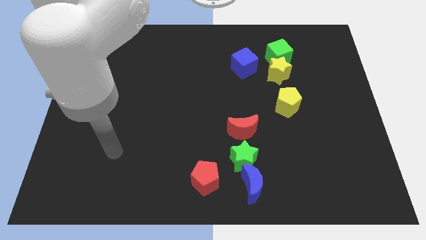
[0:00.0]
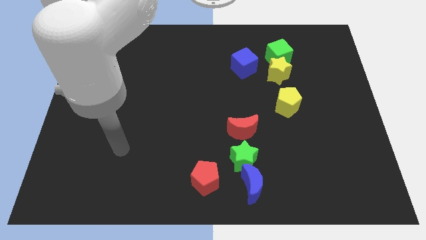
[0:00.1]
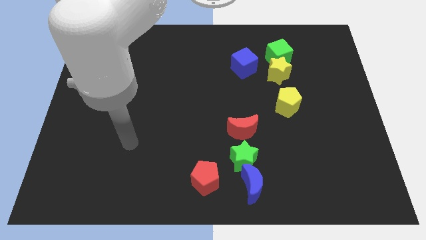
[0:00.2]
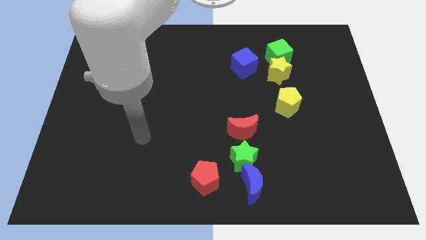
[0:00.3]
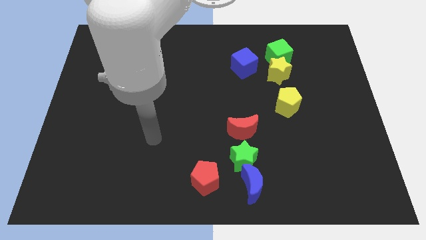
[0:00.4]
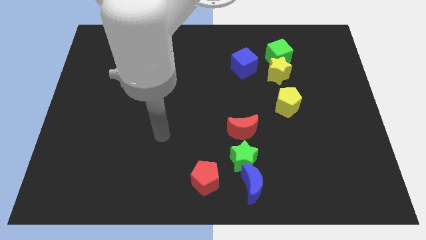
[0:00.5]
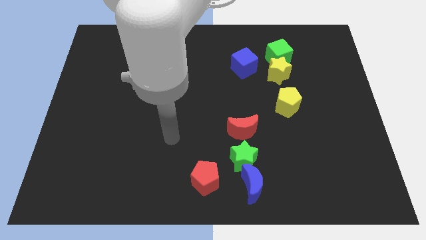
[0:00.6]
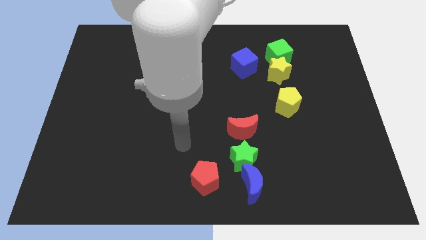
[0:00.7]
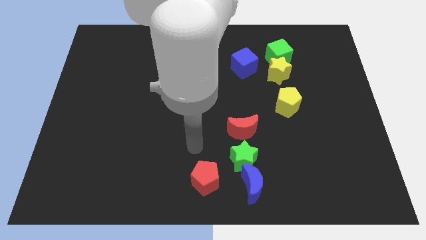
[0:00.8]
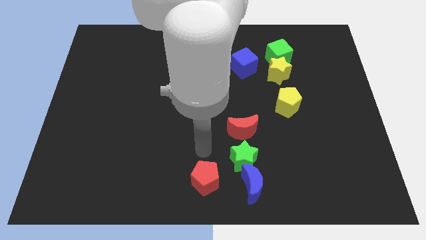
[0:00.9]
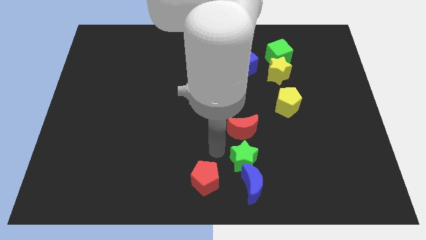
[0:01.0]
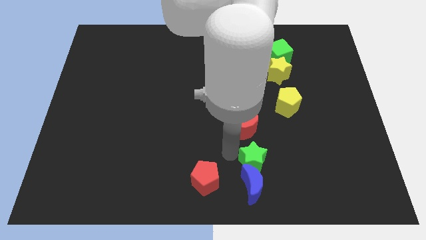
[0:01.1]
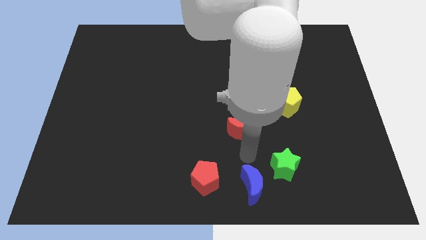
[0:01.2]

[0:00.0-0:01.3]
pull the red moon apart from the green star

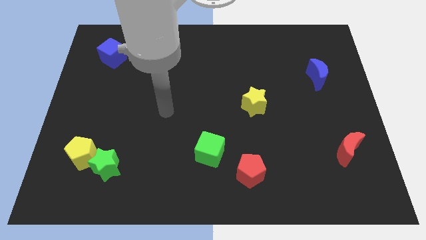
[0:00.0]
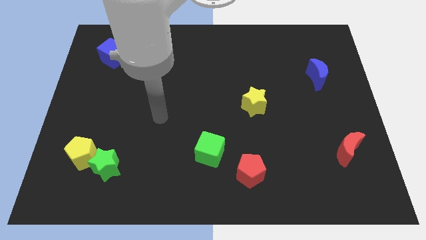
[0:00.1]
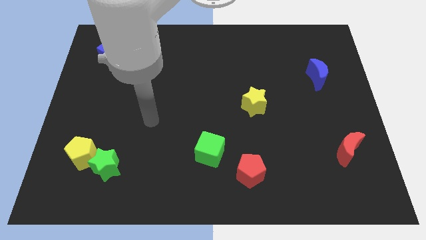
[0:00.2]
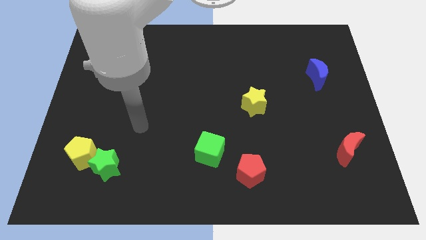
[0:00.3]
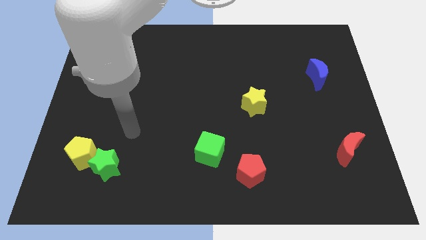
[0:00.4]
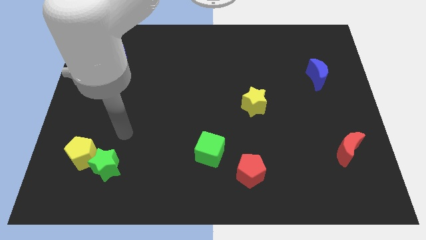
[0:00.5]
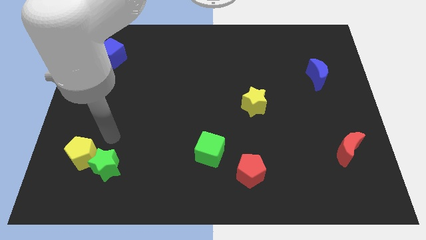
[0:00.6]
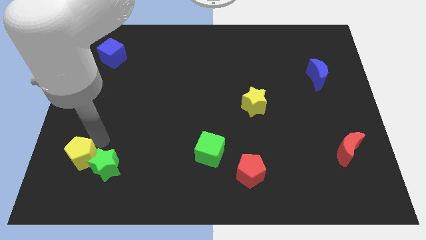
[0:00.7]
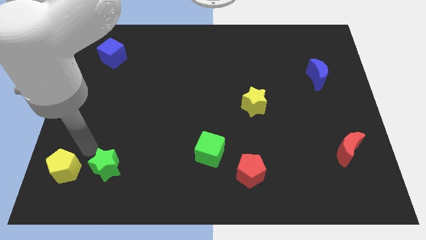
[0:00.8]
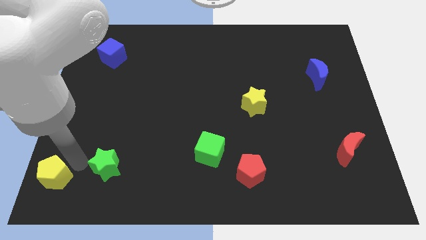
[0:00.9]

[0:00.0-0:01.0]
move the green star away from the yellow pentagon

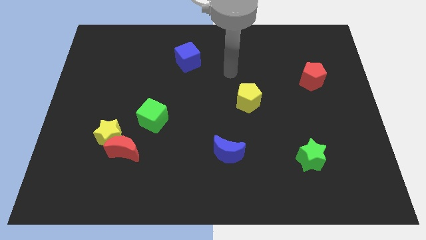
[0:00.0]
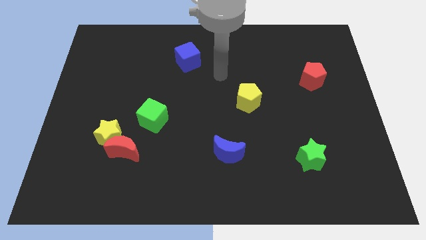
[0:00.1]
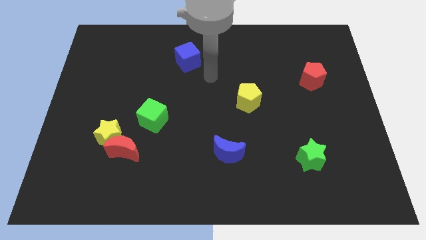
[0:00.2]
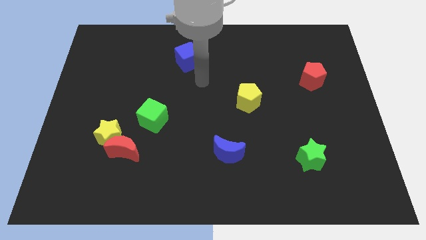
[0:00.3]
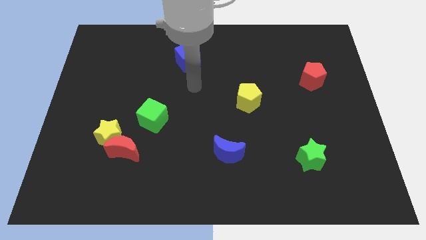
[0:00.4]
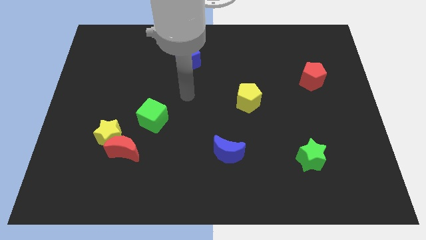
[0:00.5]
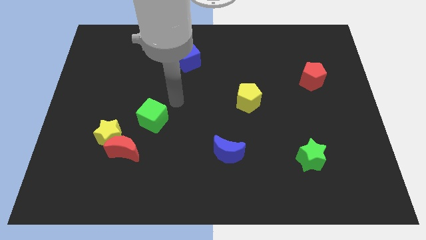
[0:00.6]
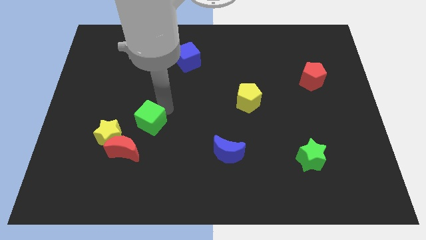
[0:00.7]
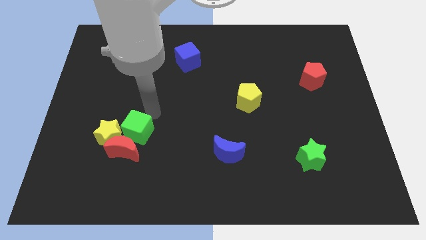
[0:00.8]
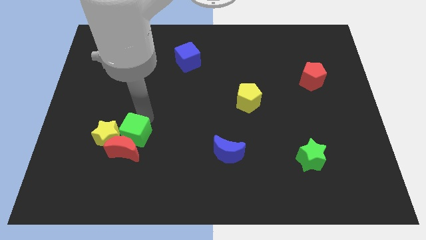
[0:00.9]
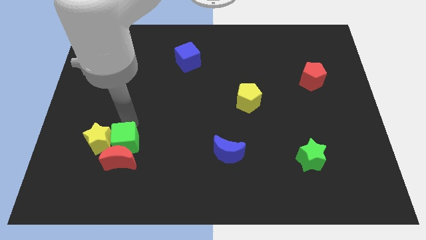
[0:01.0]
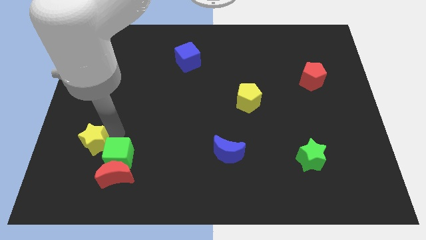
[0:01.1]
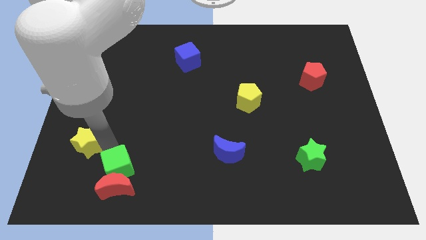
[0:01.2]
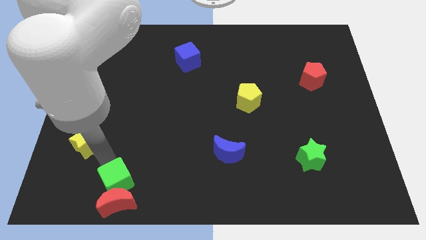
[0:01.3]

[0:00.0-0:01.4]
move the red moon away from the yellow star and green cube

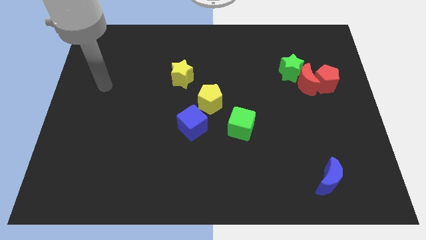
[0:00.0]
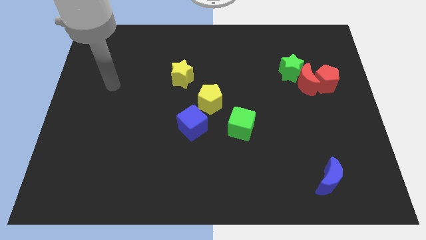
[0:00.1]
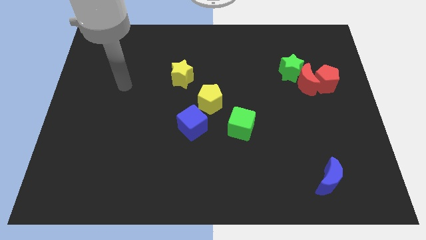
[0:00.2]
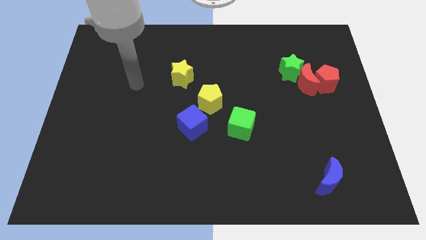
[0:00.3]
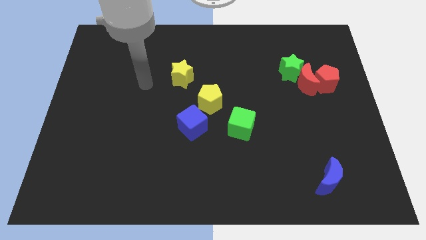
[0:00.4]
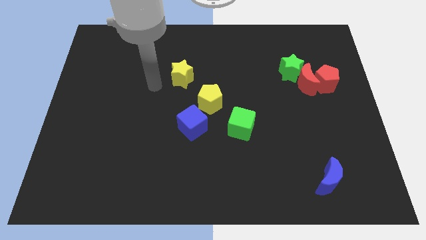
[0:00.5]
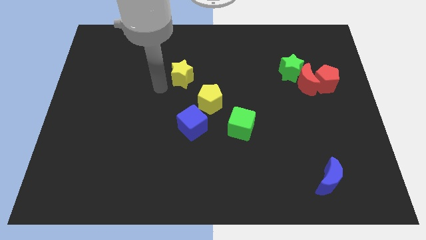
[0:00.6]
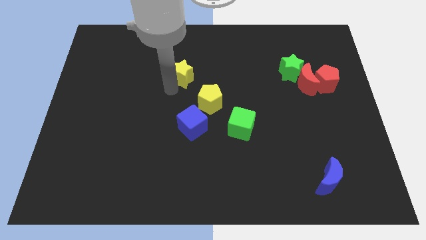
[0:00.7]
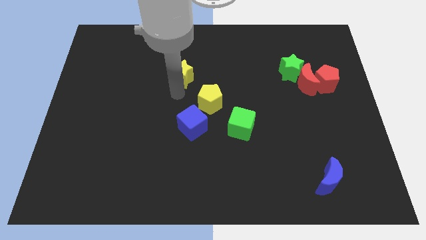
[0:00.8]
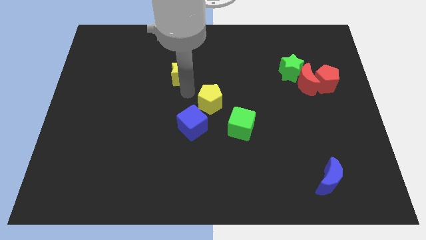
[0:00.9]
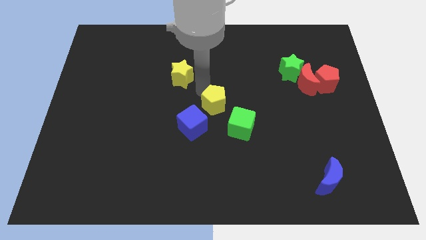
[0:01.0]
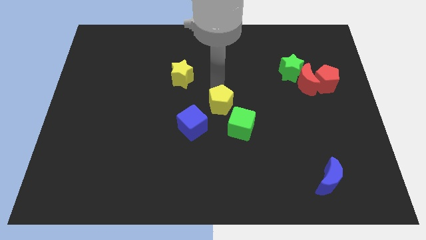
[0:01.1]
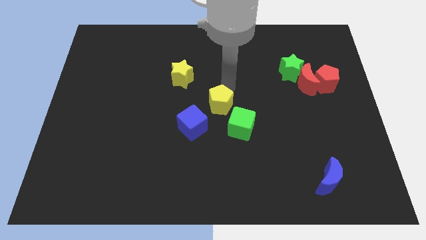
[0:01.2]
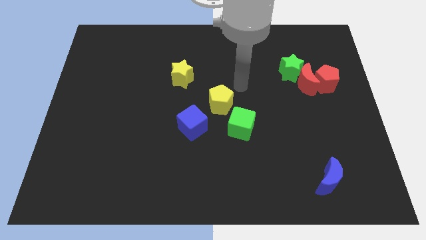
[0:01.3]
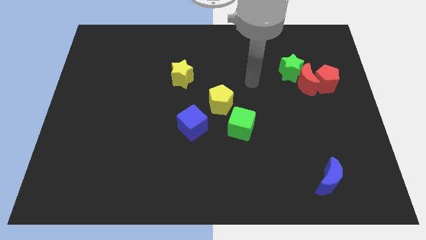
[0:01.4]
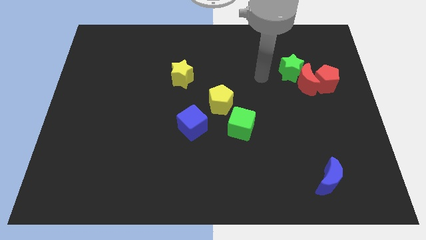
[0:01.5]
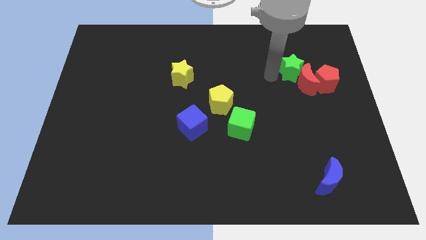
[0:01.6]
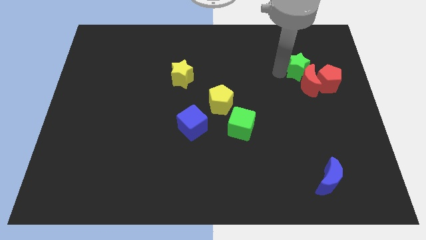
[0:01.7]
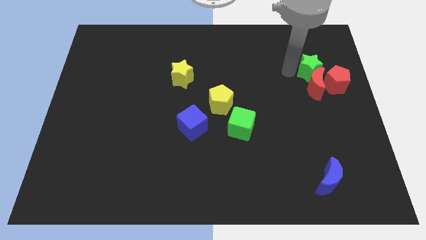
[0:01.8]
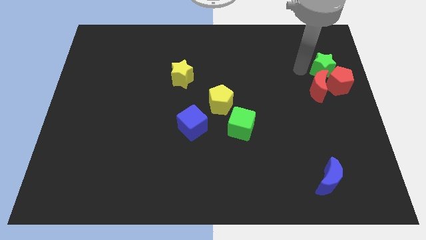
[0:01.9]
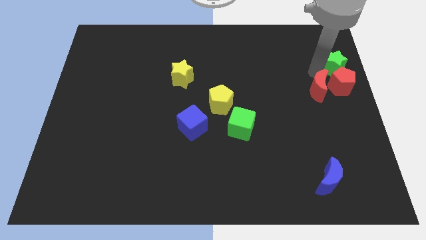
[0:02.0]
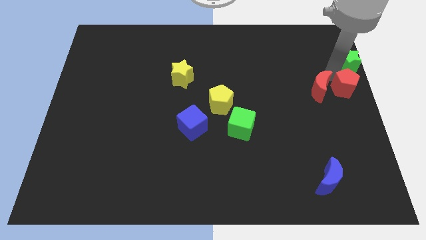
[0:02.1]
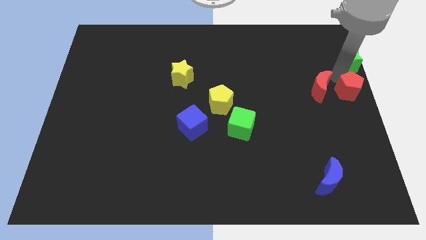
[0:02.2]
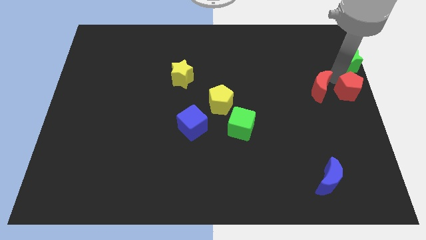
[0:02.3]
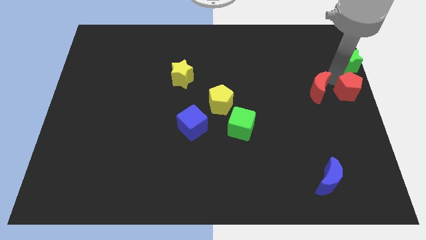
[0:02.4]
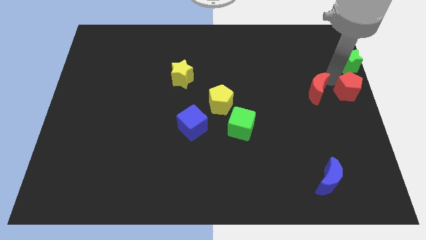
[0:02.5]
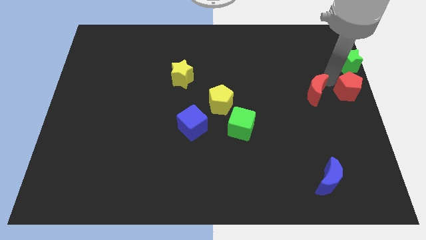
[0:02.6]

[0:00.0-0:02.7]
pull the red moon apart from the red pentagon and green star

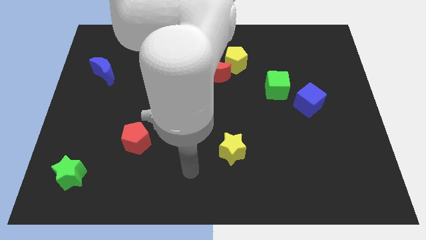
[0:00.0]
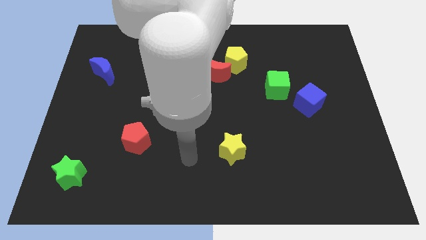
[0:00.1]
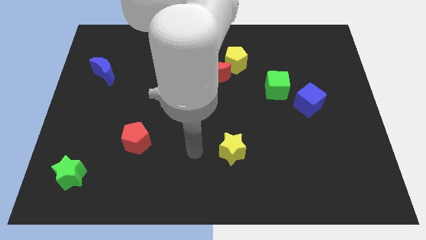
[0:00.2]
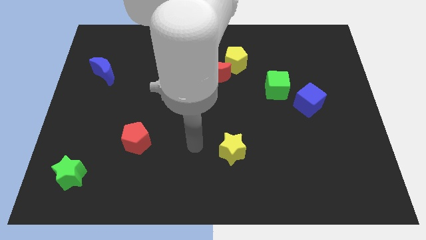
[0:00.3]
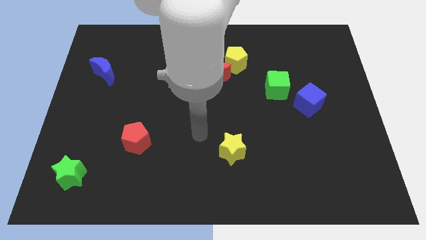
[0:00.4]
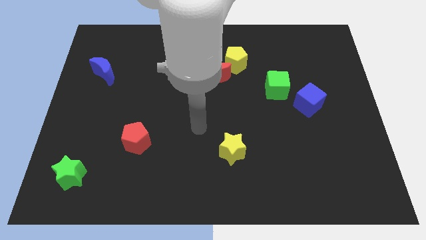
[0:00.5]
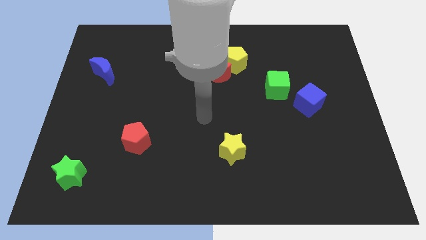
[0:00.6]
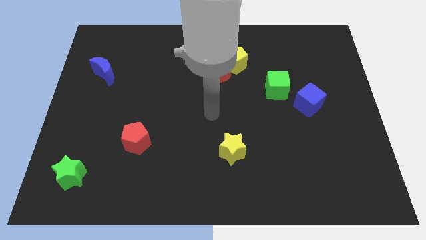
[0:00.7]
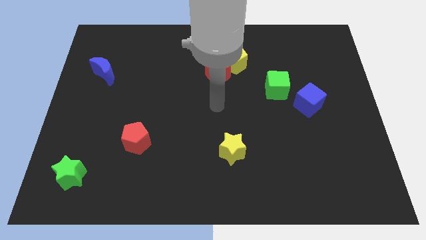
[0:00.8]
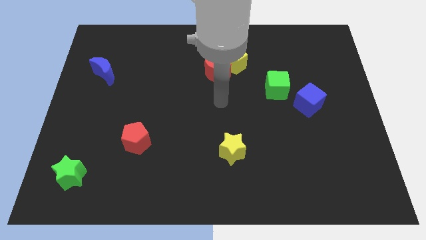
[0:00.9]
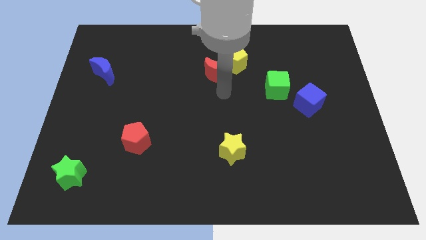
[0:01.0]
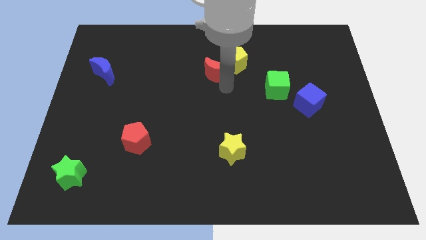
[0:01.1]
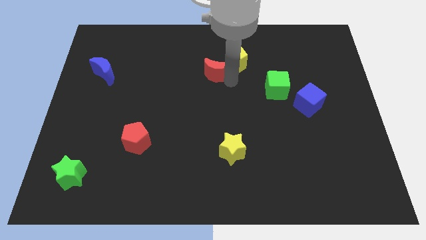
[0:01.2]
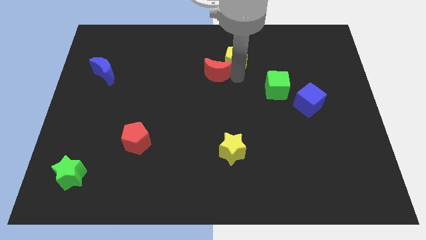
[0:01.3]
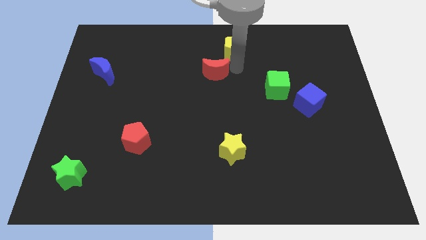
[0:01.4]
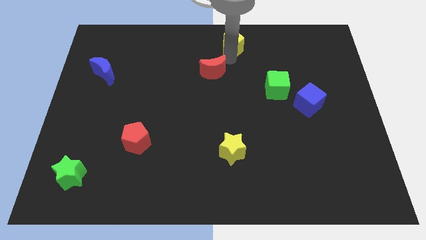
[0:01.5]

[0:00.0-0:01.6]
pull the red moon apart from the yellow pentagon

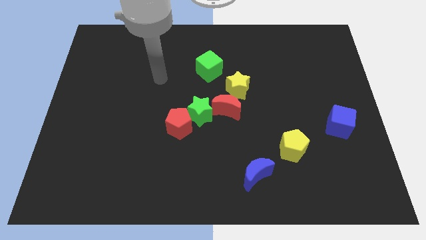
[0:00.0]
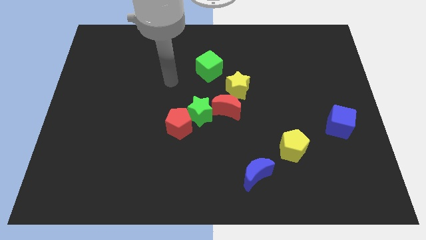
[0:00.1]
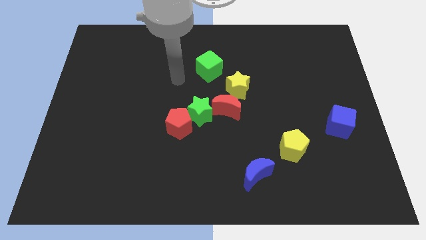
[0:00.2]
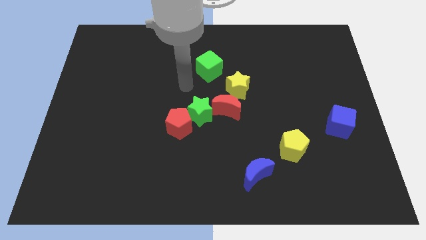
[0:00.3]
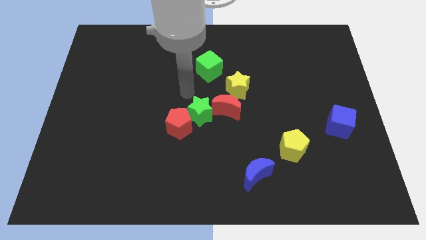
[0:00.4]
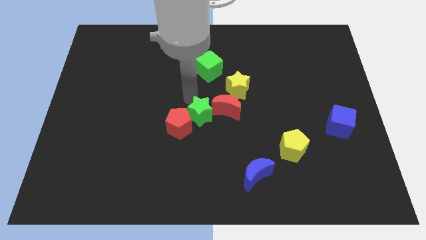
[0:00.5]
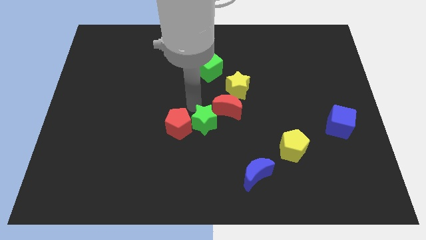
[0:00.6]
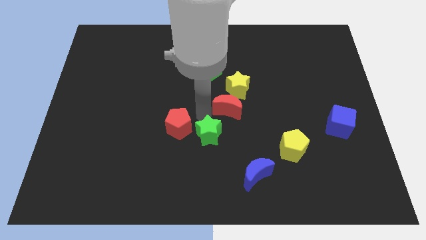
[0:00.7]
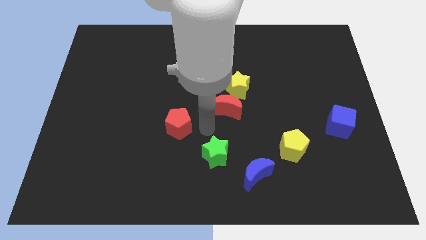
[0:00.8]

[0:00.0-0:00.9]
move the red pentagon away from the green star

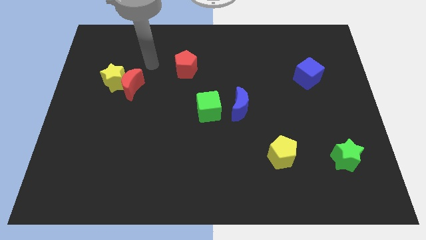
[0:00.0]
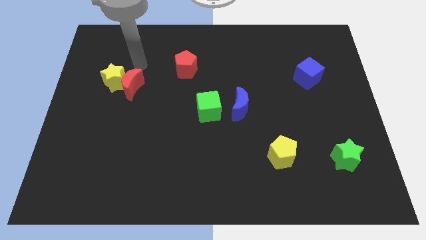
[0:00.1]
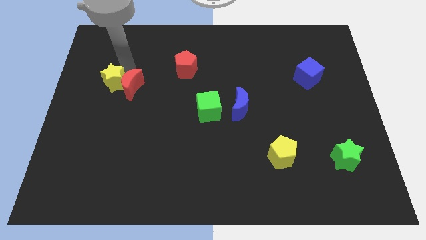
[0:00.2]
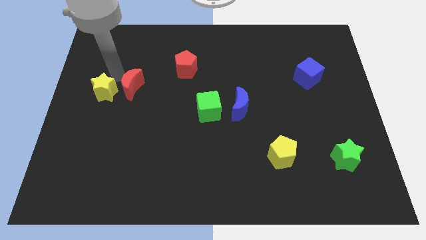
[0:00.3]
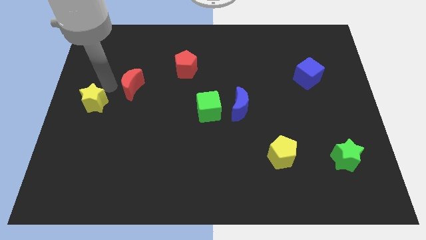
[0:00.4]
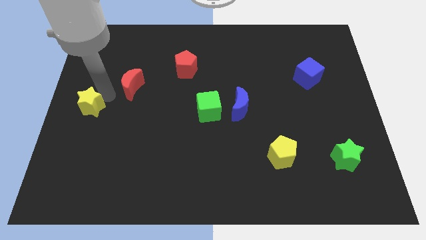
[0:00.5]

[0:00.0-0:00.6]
pull the red moon apart from the yellow star
